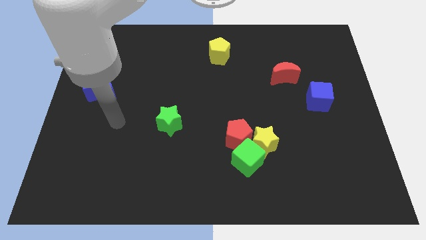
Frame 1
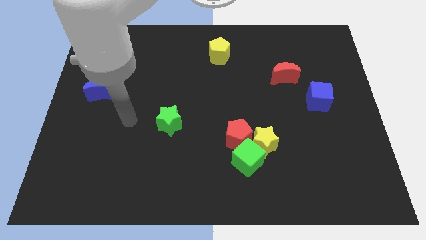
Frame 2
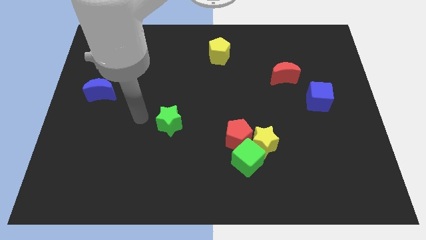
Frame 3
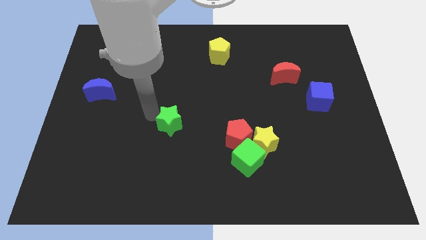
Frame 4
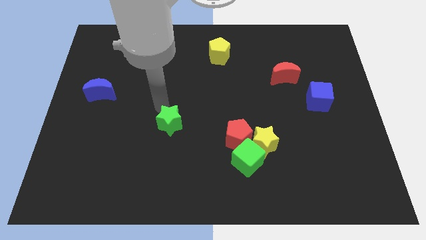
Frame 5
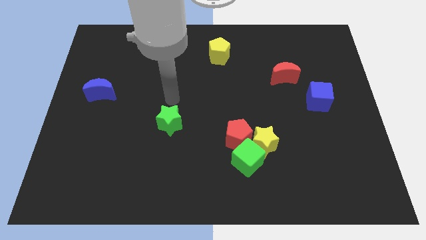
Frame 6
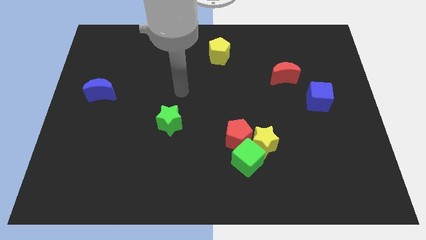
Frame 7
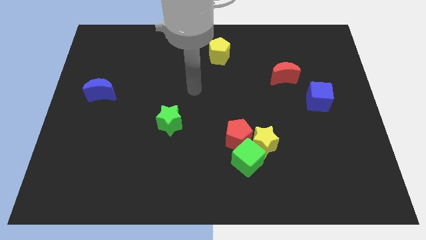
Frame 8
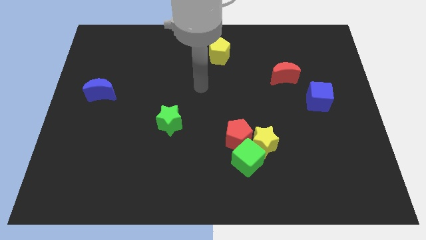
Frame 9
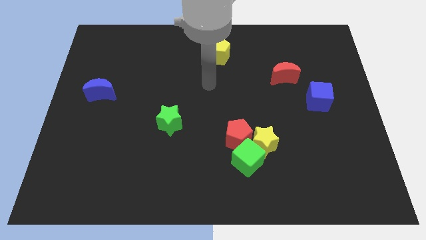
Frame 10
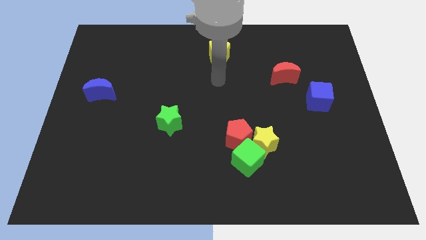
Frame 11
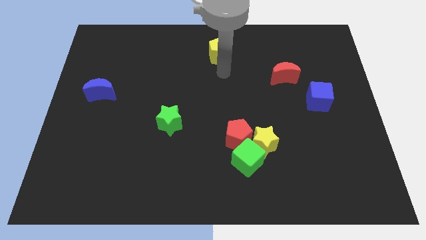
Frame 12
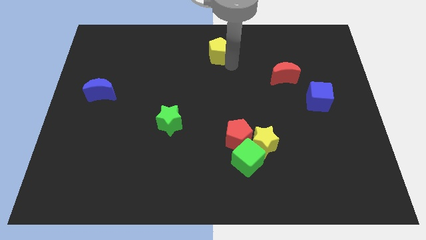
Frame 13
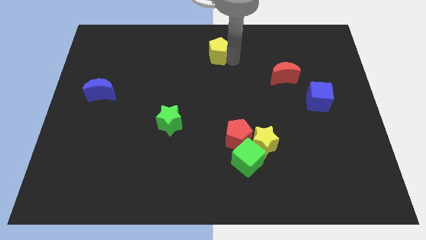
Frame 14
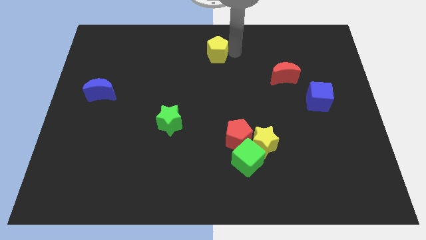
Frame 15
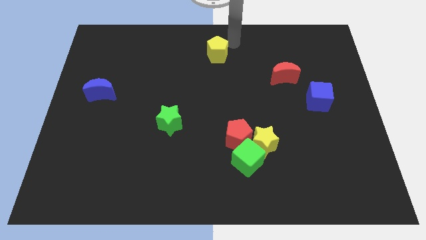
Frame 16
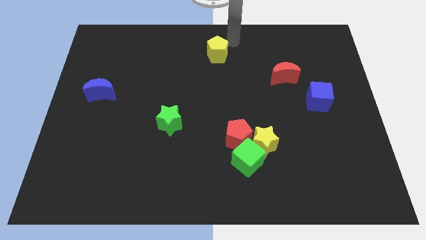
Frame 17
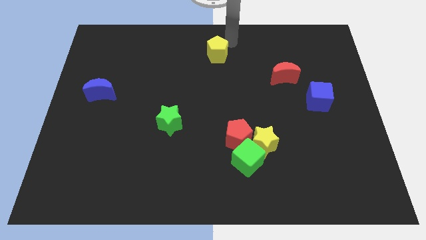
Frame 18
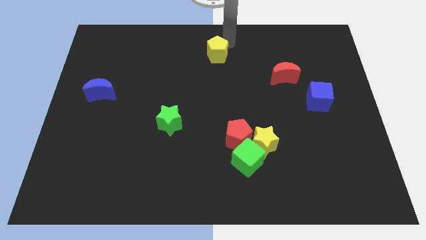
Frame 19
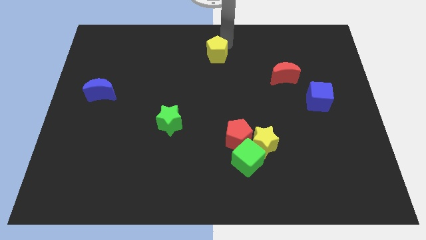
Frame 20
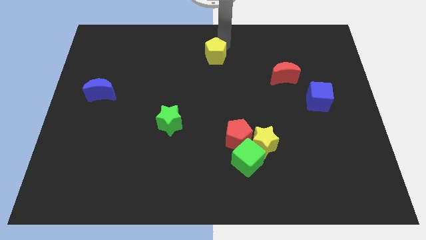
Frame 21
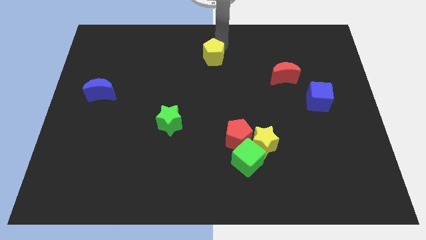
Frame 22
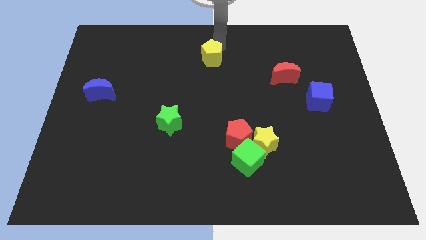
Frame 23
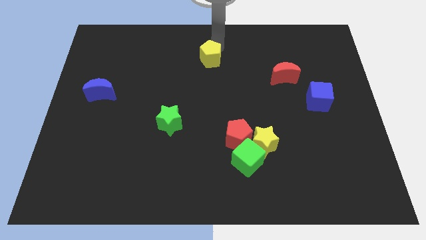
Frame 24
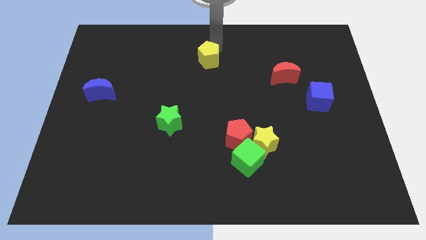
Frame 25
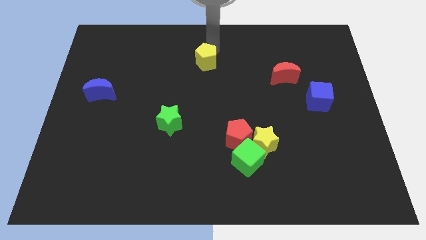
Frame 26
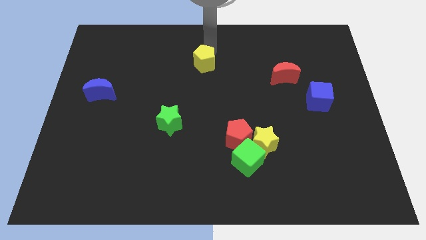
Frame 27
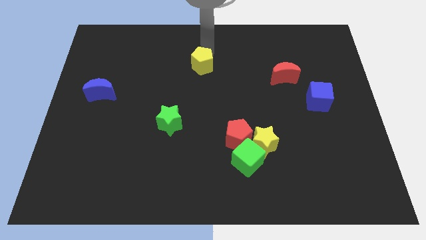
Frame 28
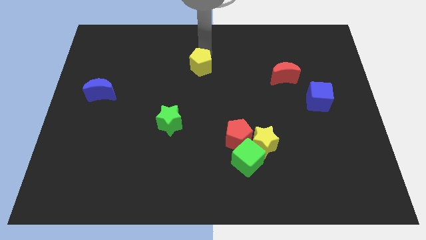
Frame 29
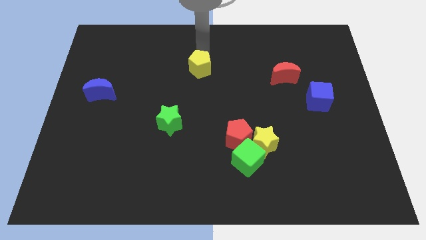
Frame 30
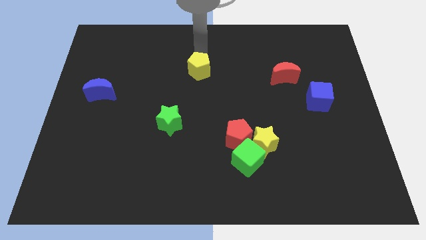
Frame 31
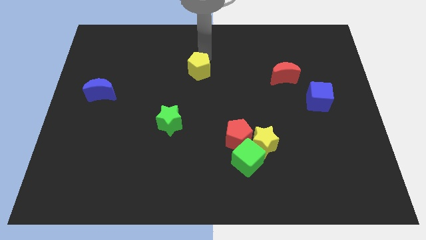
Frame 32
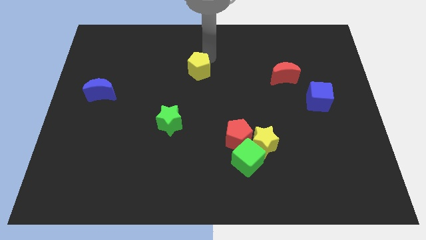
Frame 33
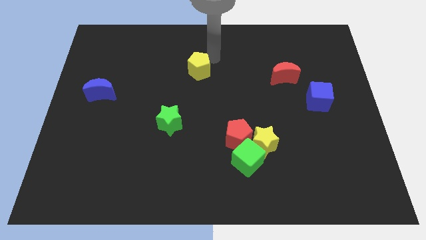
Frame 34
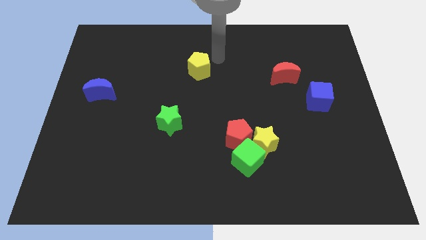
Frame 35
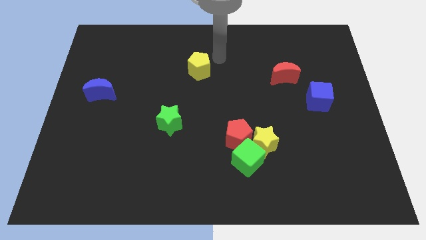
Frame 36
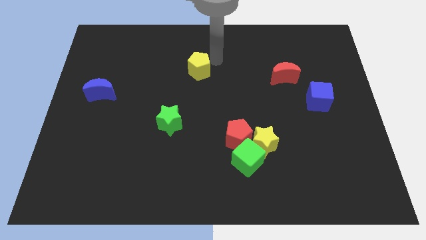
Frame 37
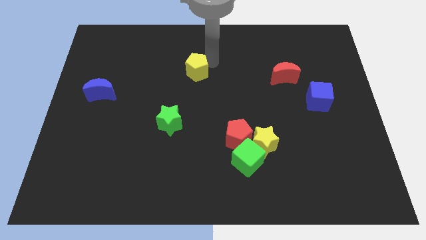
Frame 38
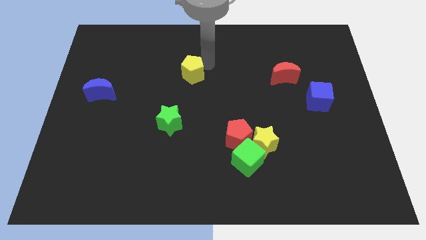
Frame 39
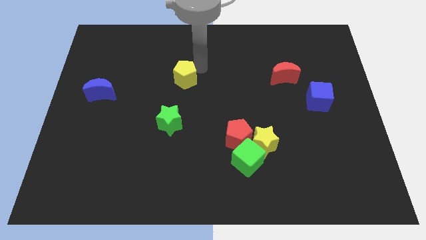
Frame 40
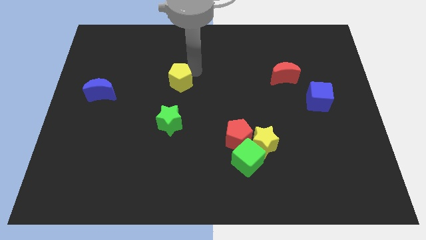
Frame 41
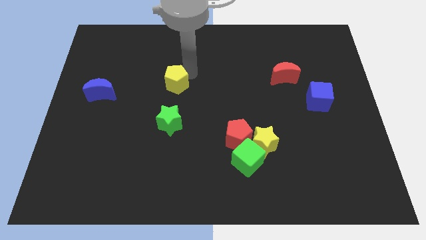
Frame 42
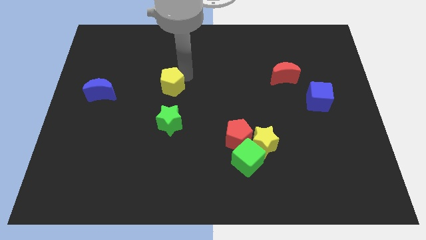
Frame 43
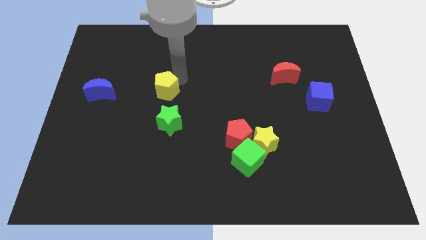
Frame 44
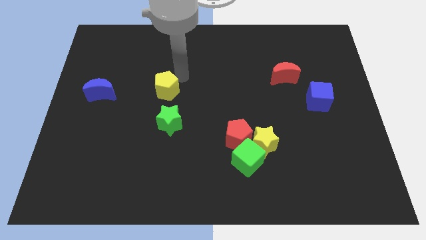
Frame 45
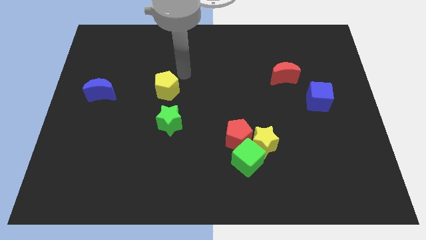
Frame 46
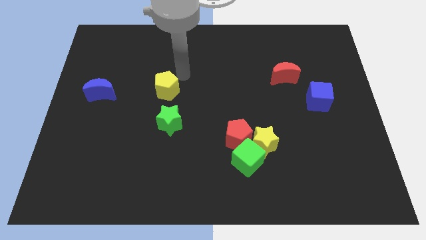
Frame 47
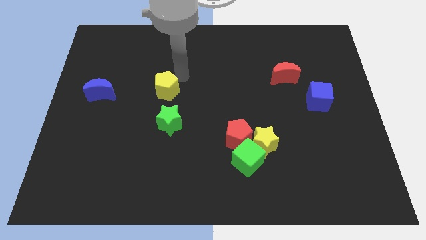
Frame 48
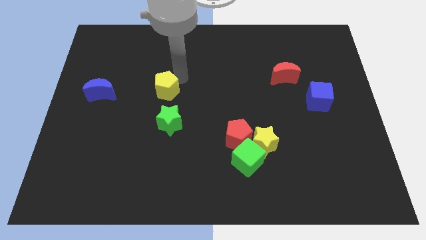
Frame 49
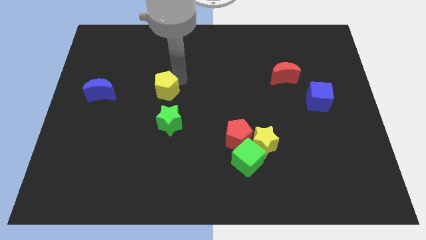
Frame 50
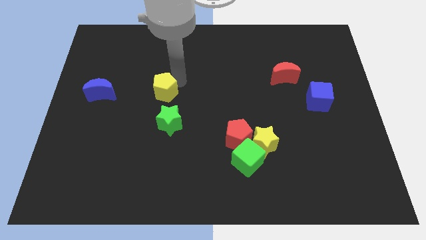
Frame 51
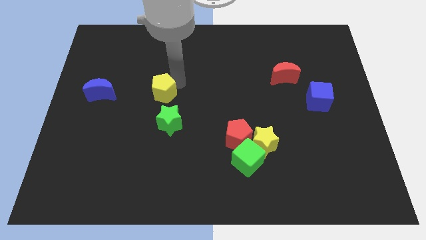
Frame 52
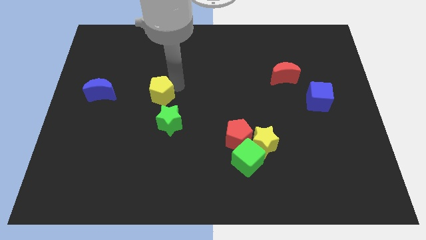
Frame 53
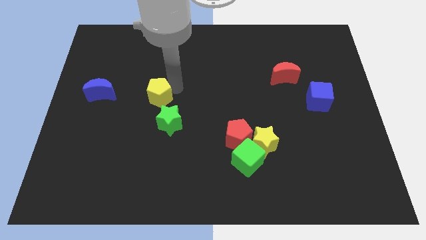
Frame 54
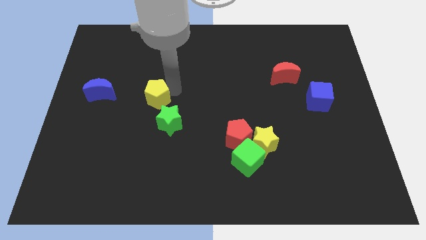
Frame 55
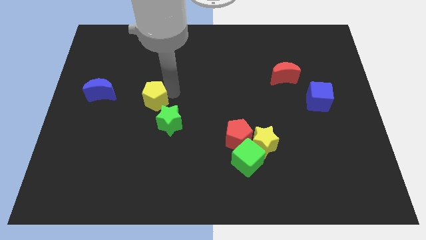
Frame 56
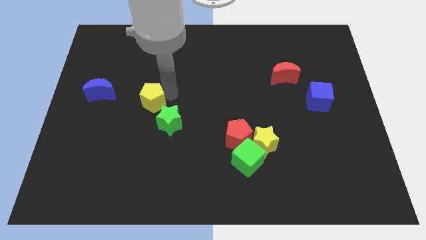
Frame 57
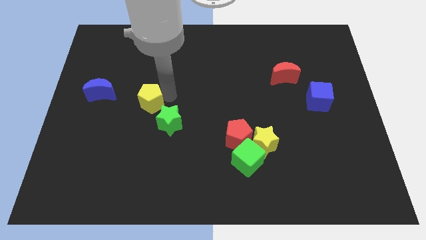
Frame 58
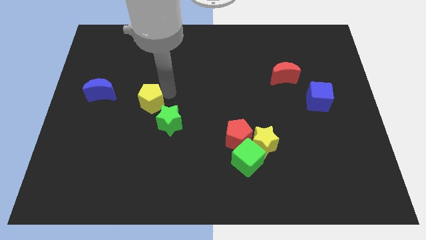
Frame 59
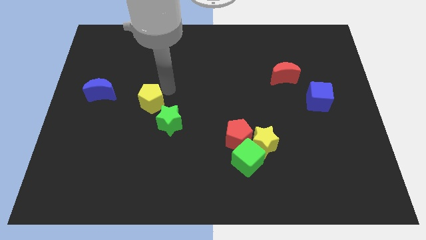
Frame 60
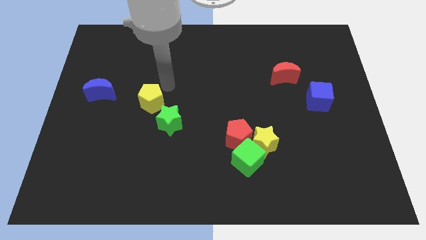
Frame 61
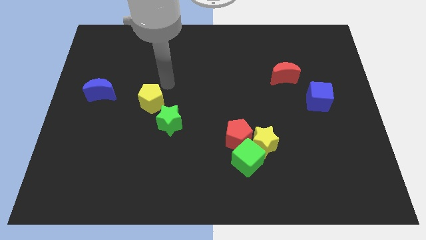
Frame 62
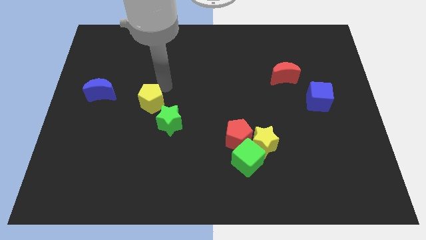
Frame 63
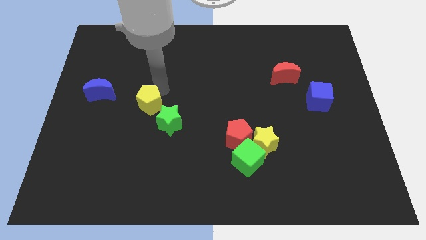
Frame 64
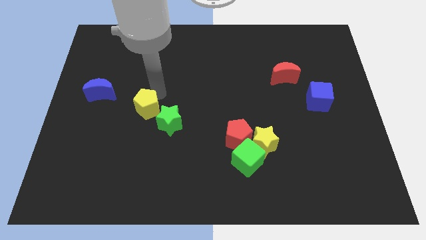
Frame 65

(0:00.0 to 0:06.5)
push the yellow pentagon left of the green star

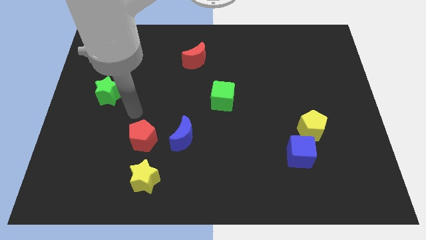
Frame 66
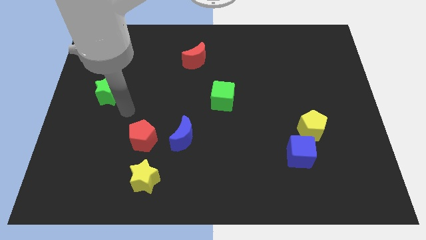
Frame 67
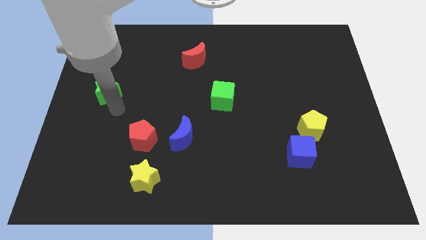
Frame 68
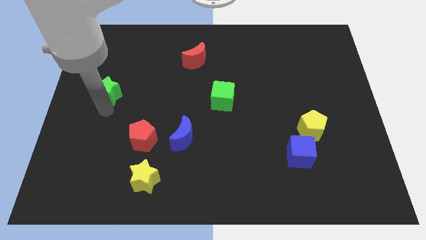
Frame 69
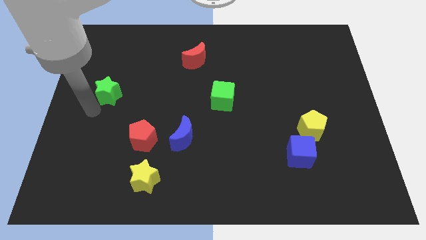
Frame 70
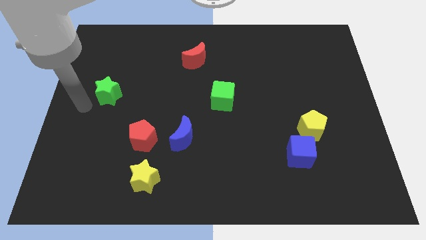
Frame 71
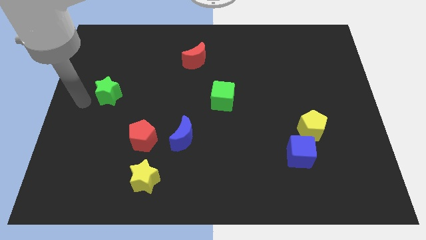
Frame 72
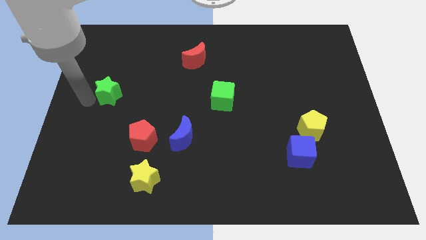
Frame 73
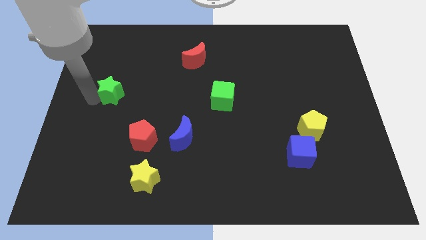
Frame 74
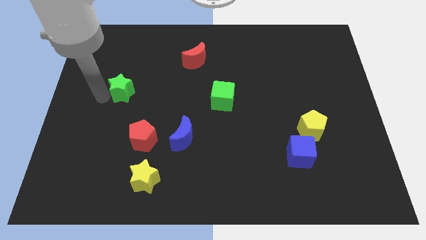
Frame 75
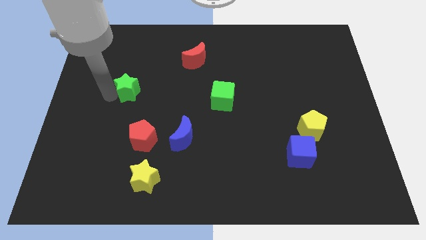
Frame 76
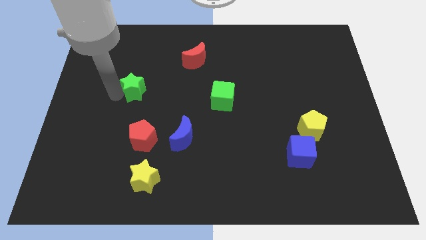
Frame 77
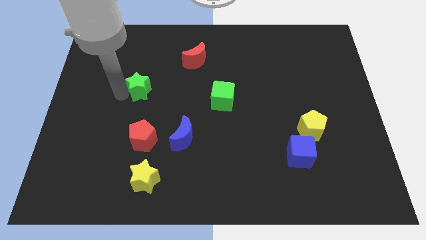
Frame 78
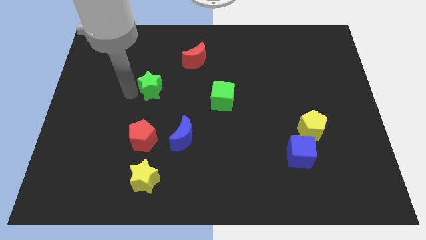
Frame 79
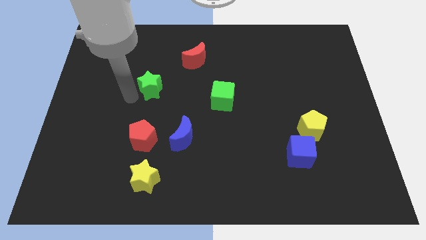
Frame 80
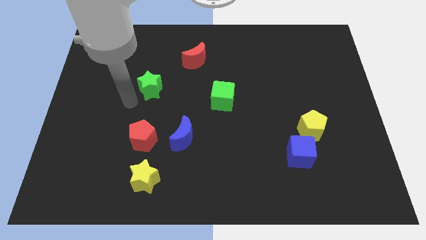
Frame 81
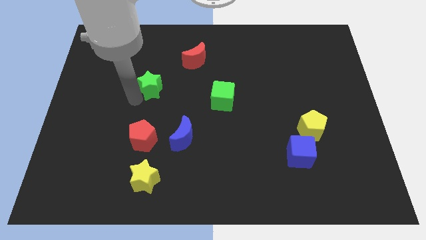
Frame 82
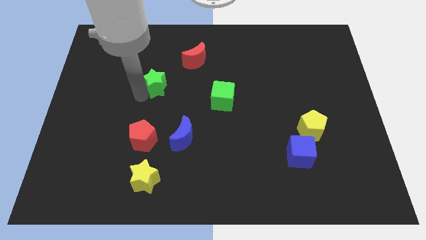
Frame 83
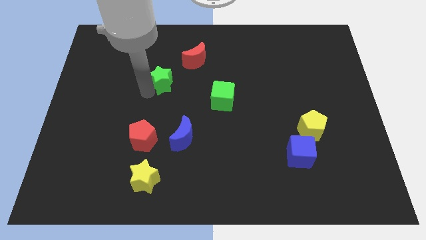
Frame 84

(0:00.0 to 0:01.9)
slide the green star to the bottom left of the red moon
